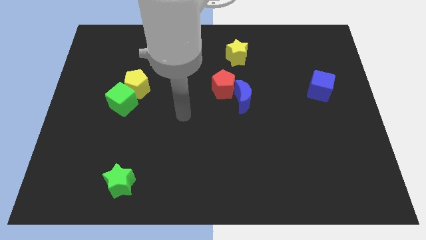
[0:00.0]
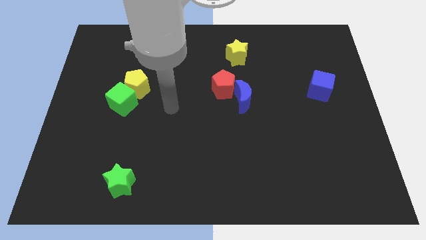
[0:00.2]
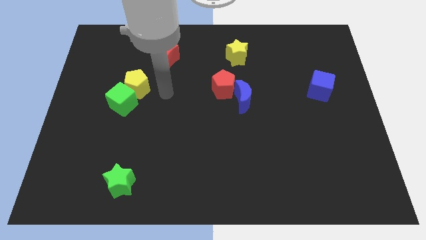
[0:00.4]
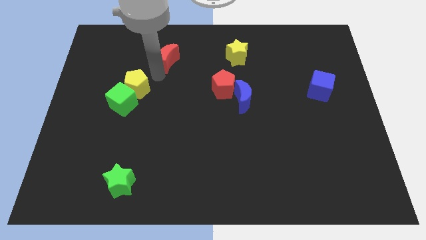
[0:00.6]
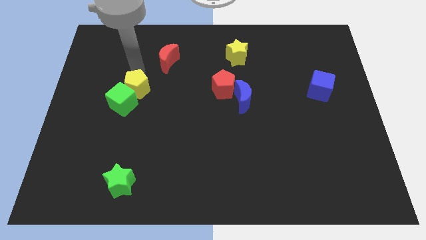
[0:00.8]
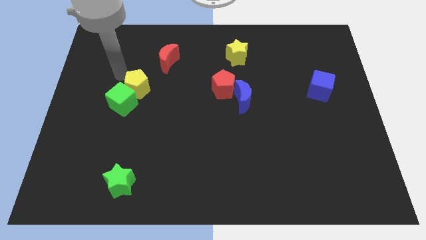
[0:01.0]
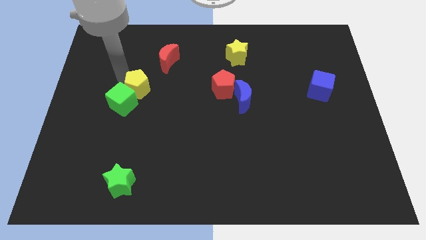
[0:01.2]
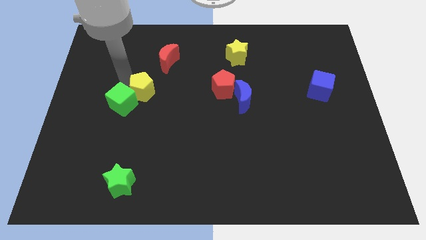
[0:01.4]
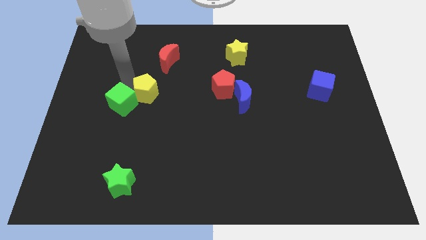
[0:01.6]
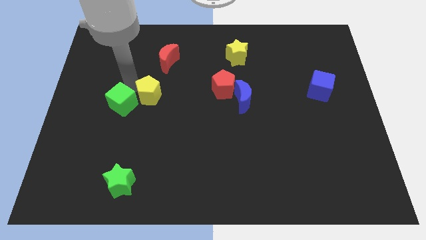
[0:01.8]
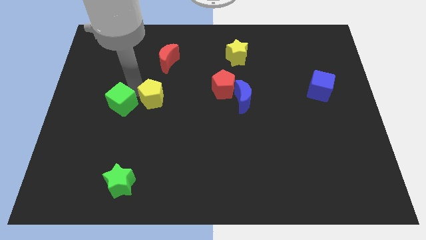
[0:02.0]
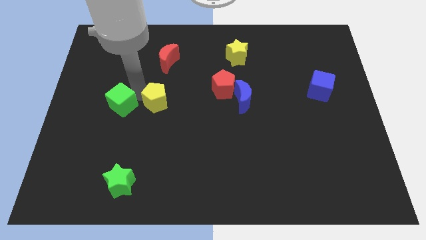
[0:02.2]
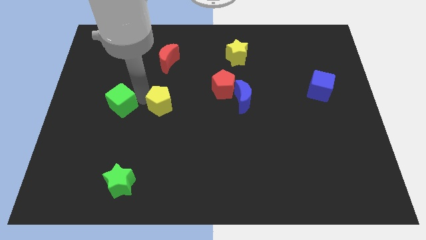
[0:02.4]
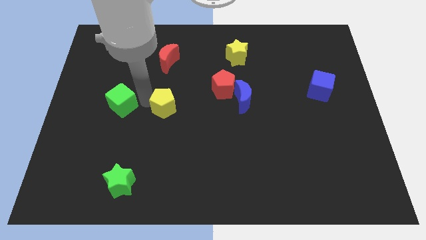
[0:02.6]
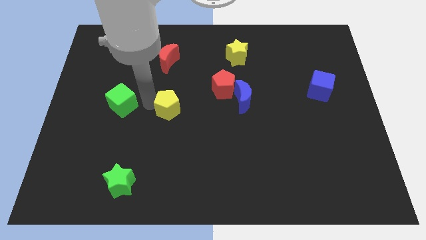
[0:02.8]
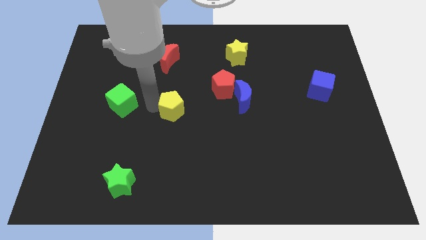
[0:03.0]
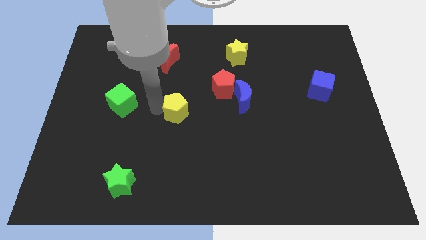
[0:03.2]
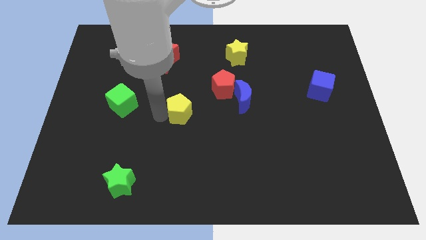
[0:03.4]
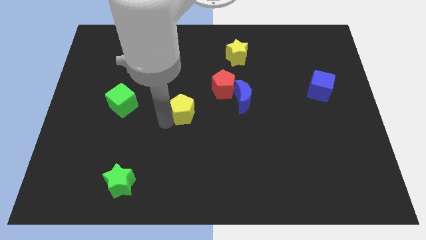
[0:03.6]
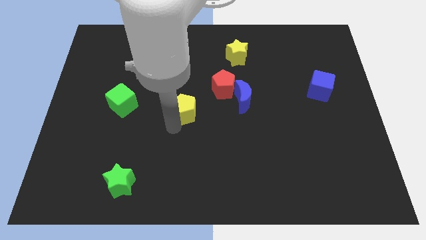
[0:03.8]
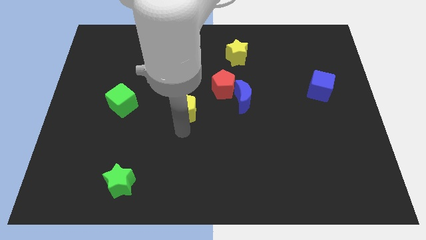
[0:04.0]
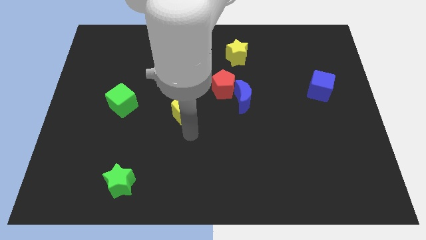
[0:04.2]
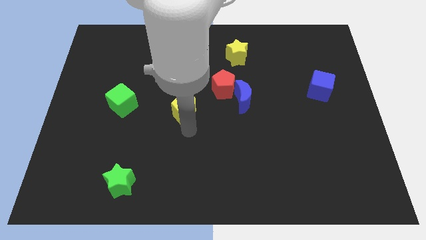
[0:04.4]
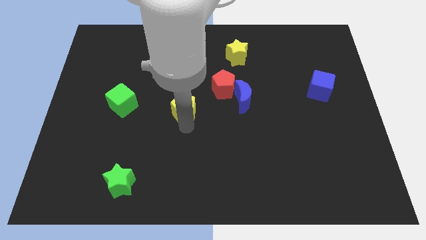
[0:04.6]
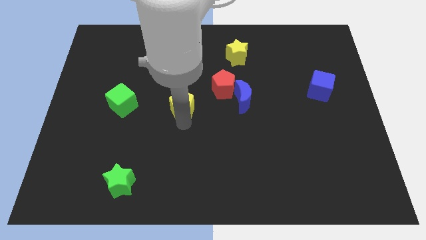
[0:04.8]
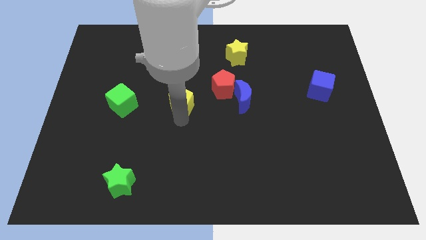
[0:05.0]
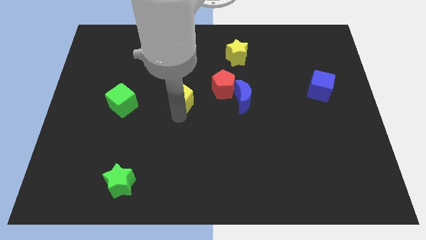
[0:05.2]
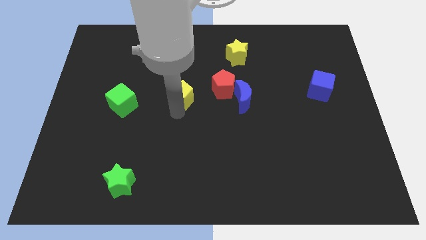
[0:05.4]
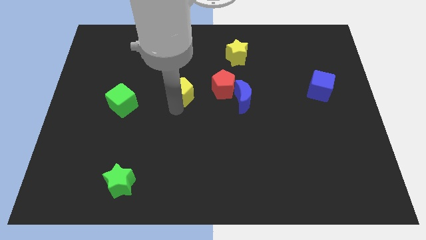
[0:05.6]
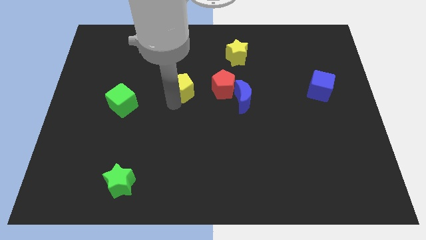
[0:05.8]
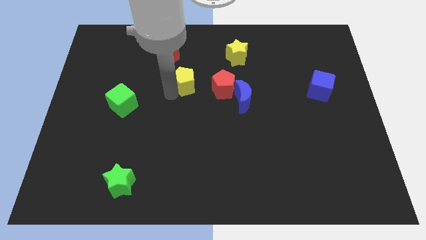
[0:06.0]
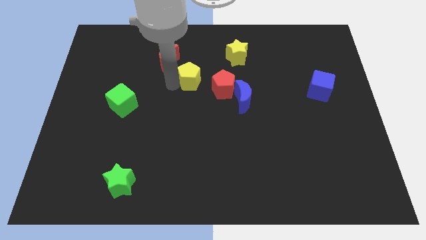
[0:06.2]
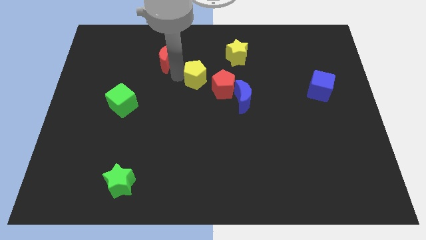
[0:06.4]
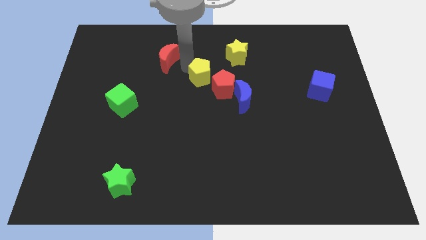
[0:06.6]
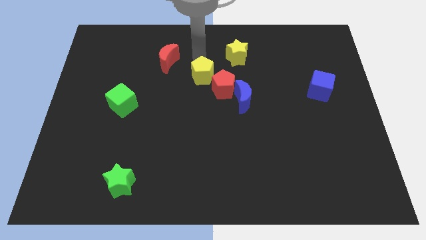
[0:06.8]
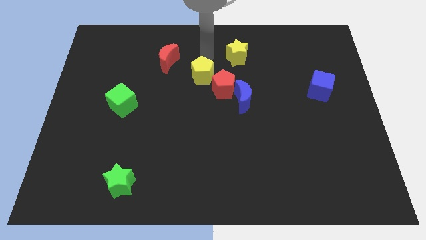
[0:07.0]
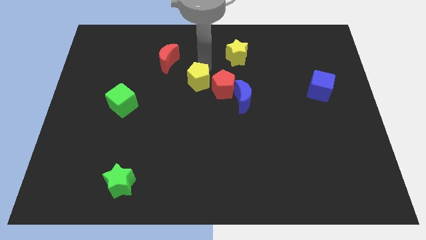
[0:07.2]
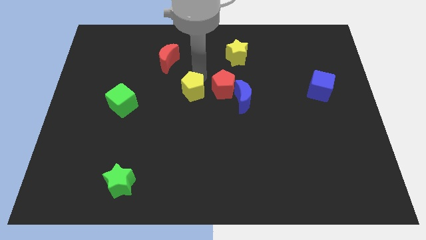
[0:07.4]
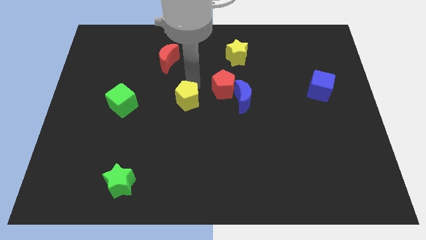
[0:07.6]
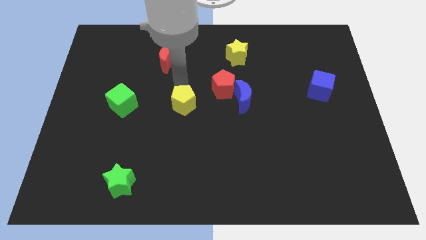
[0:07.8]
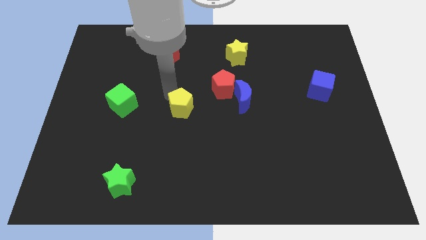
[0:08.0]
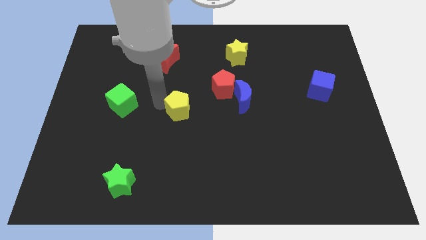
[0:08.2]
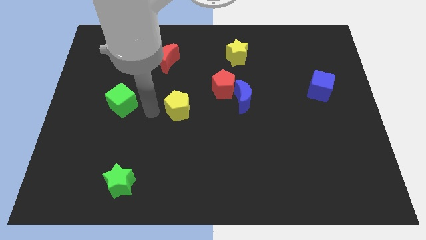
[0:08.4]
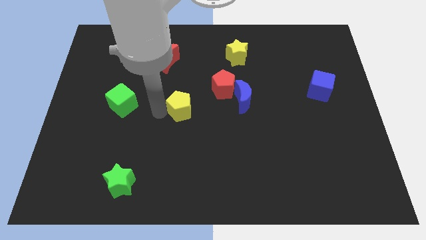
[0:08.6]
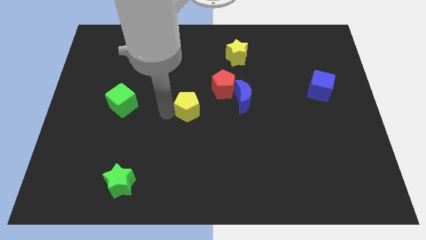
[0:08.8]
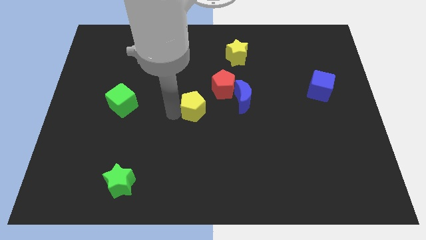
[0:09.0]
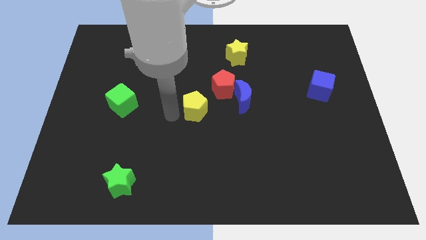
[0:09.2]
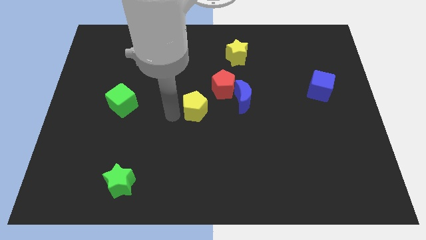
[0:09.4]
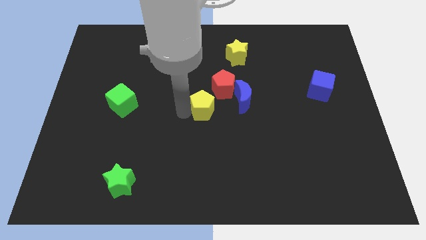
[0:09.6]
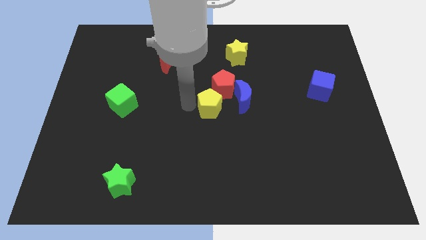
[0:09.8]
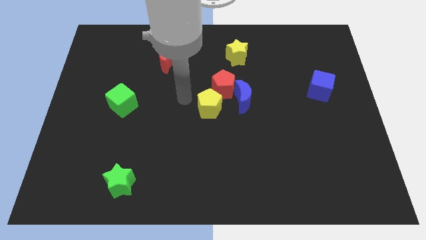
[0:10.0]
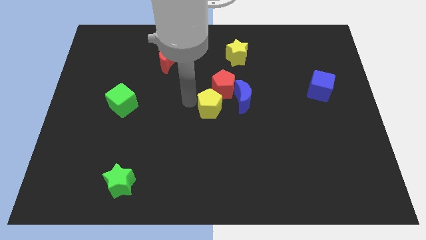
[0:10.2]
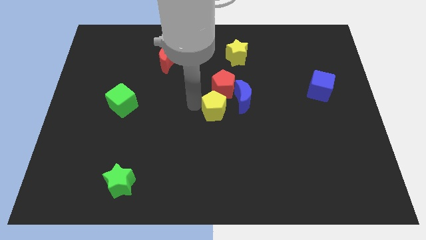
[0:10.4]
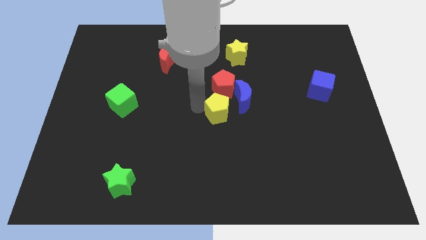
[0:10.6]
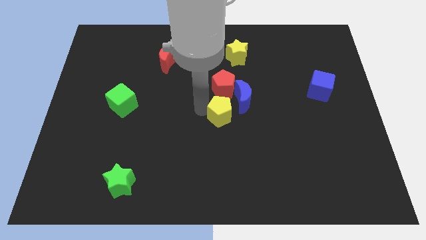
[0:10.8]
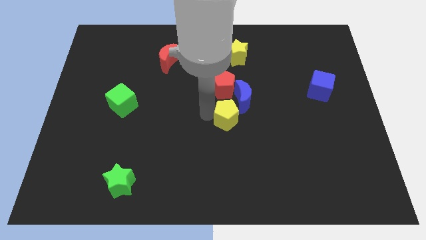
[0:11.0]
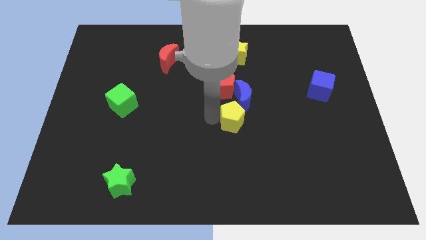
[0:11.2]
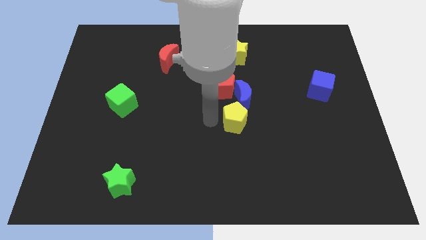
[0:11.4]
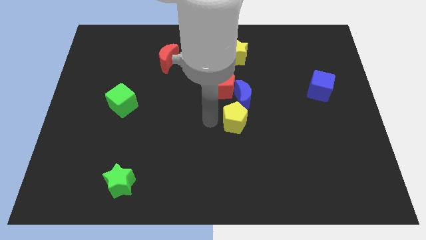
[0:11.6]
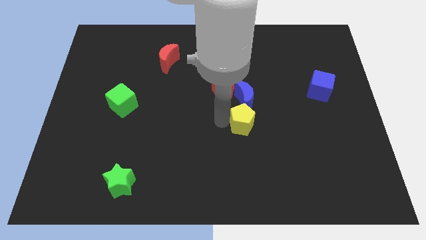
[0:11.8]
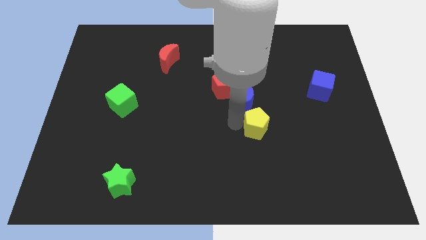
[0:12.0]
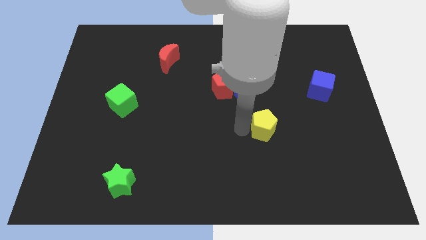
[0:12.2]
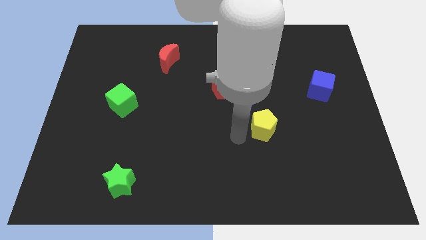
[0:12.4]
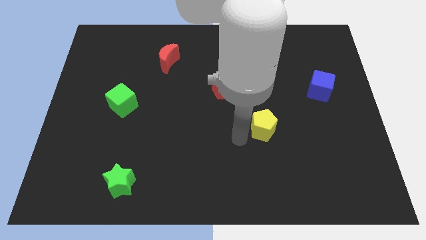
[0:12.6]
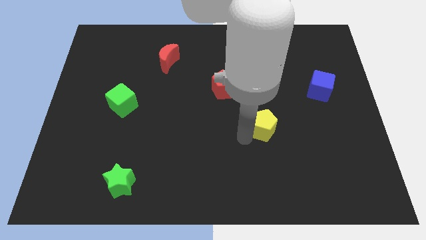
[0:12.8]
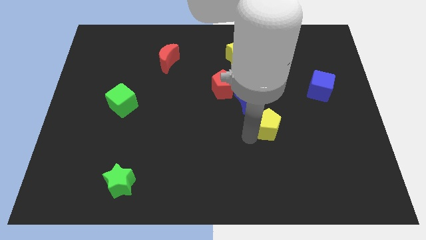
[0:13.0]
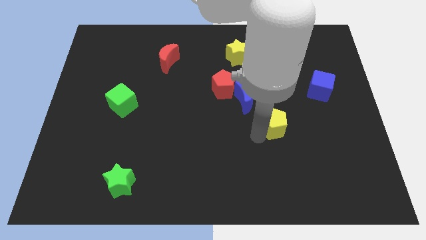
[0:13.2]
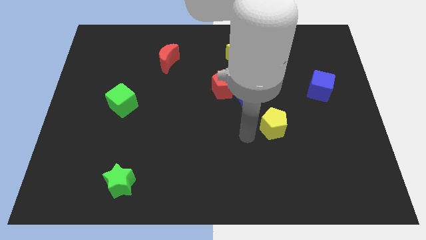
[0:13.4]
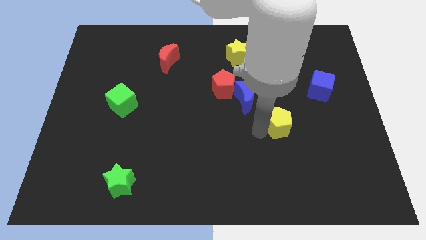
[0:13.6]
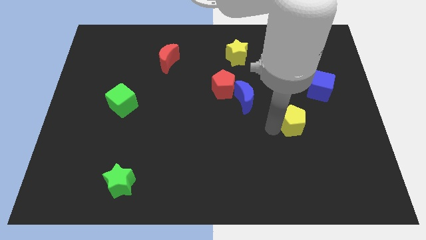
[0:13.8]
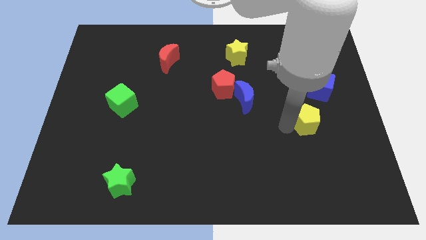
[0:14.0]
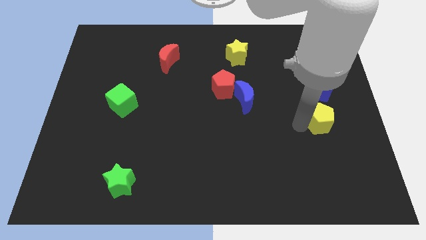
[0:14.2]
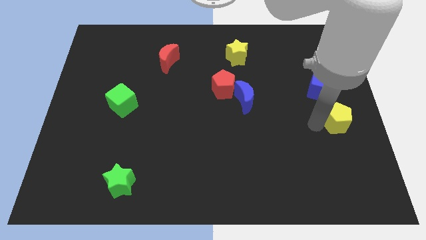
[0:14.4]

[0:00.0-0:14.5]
move the yellow pentagon to the right side
